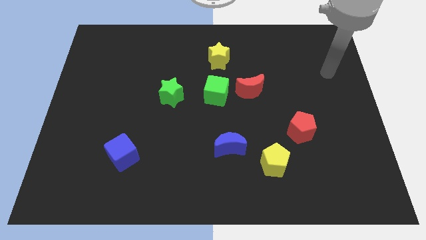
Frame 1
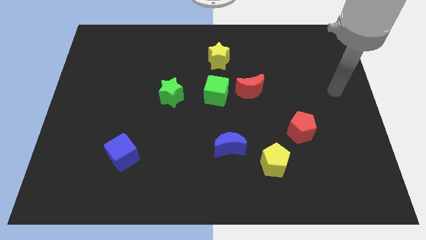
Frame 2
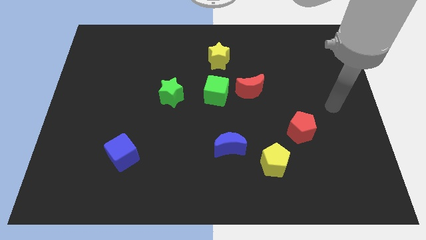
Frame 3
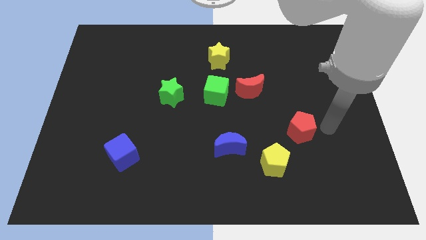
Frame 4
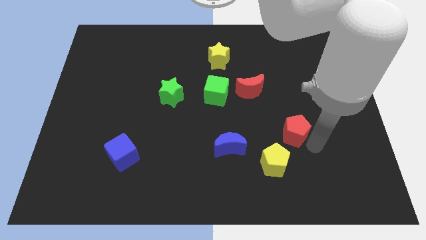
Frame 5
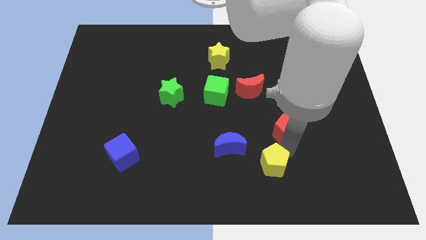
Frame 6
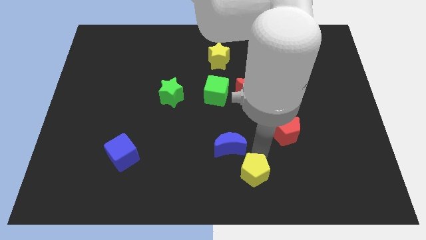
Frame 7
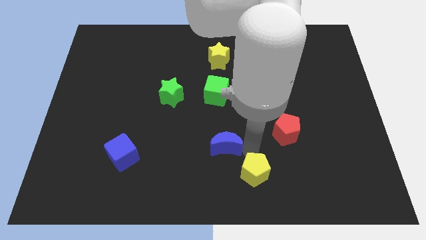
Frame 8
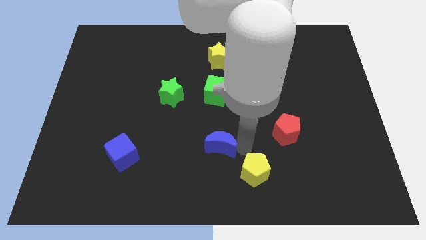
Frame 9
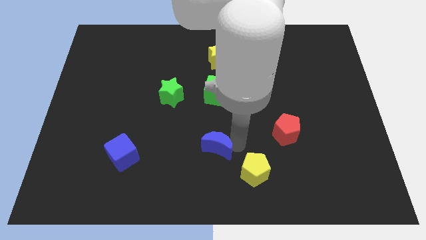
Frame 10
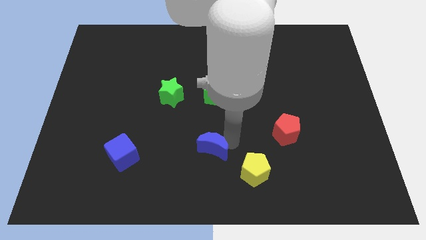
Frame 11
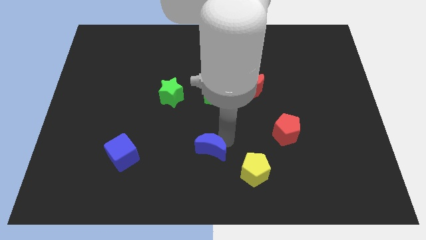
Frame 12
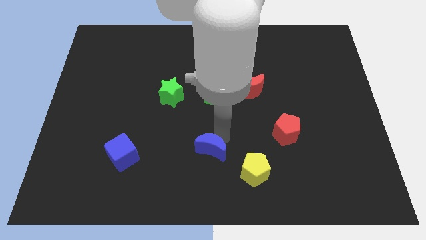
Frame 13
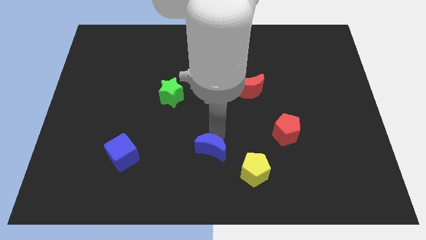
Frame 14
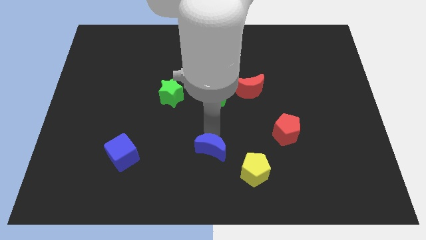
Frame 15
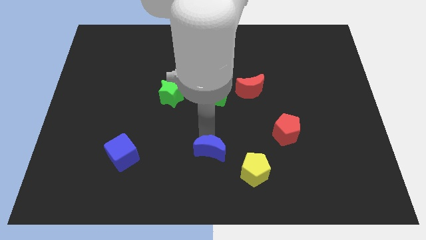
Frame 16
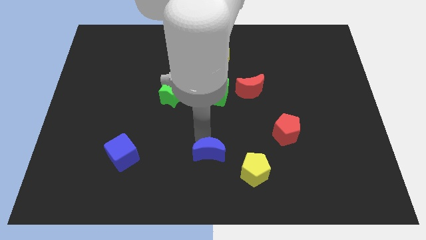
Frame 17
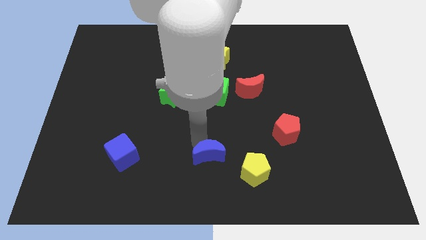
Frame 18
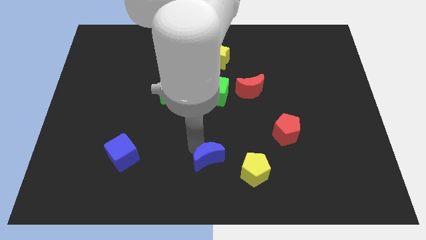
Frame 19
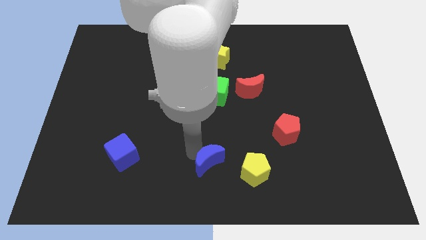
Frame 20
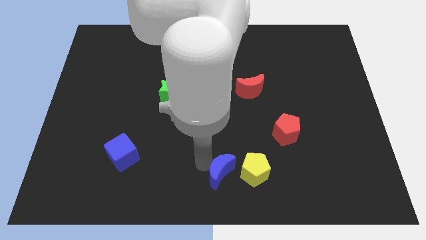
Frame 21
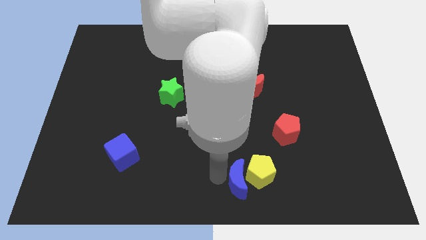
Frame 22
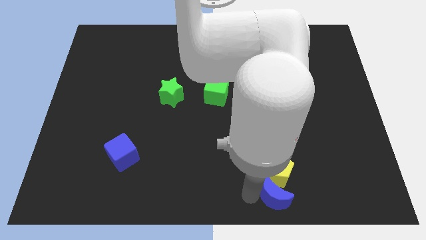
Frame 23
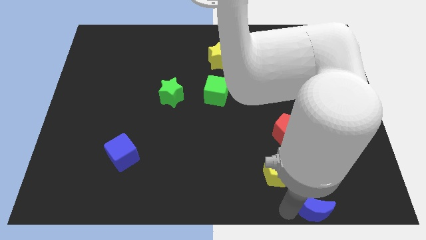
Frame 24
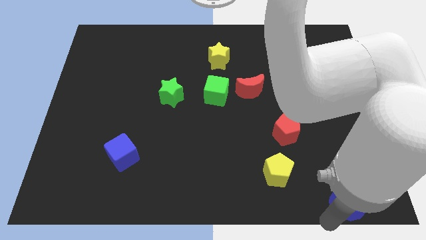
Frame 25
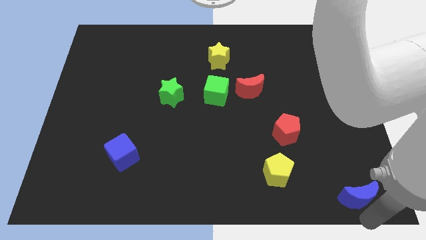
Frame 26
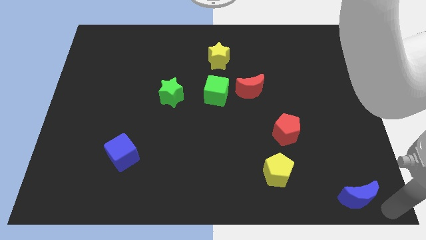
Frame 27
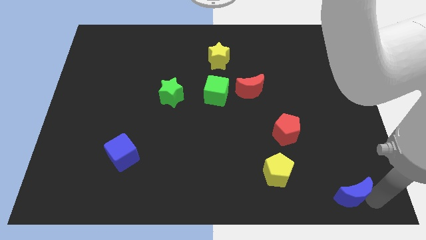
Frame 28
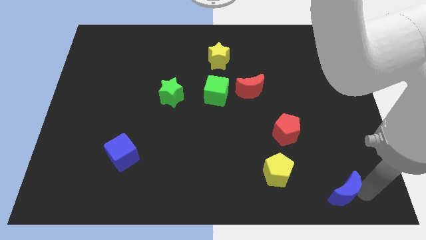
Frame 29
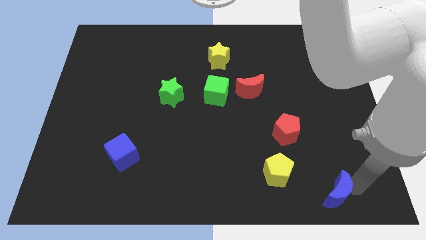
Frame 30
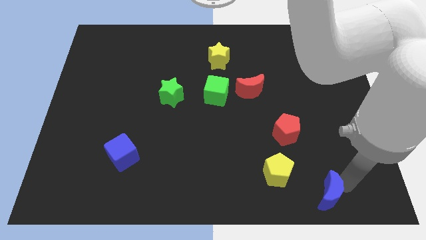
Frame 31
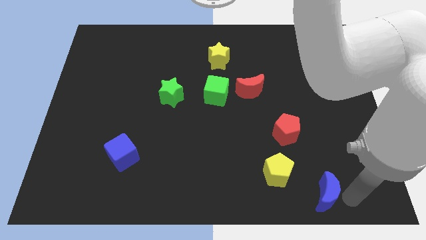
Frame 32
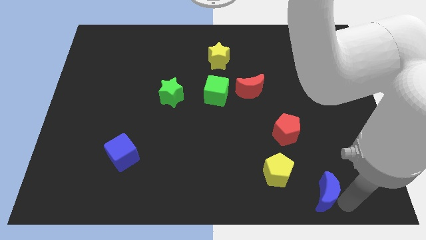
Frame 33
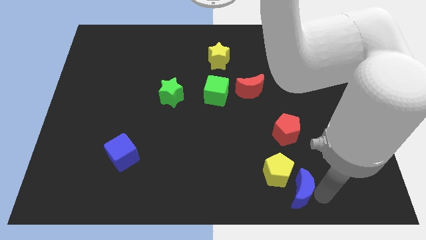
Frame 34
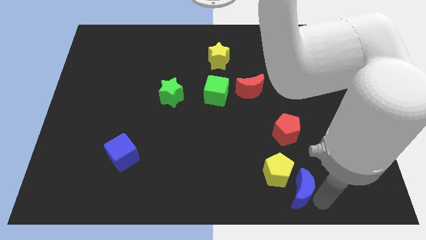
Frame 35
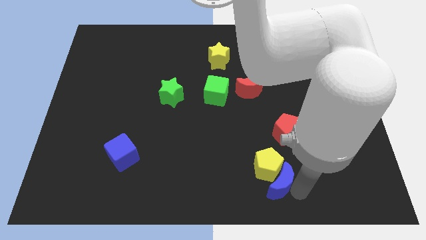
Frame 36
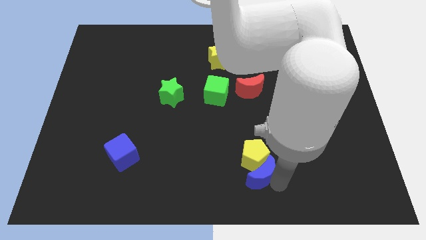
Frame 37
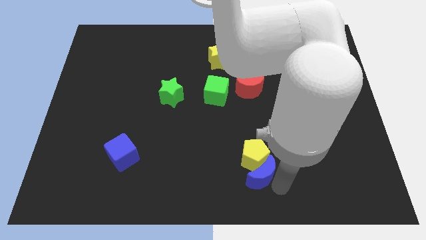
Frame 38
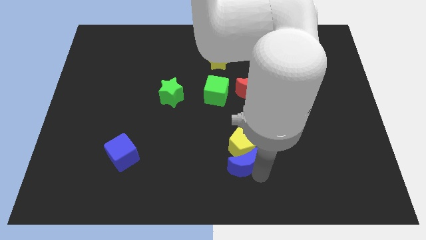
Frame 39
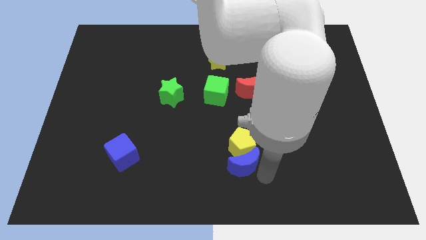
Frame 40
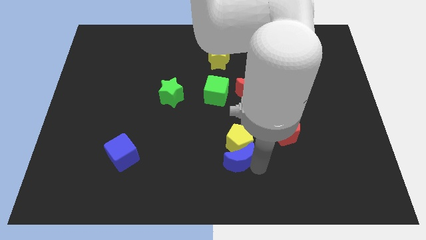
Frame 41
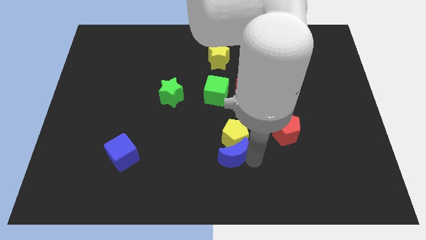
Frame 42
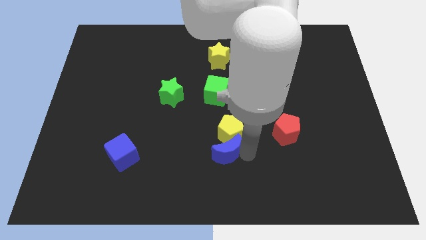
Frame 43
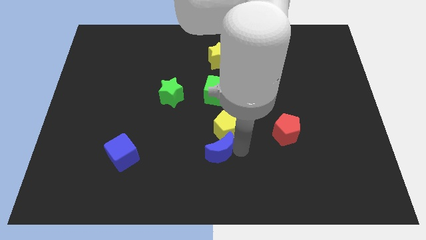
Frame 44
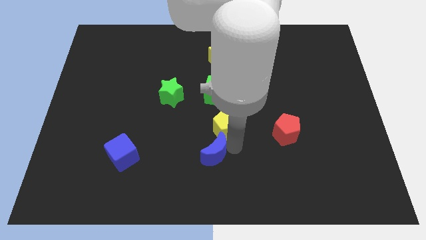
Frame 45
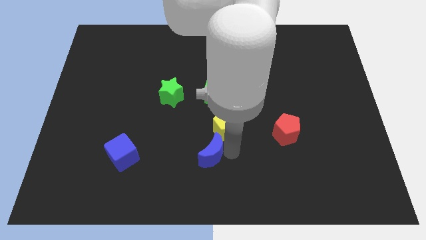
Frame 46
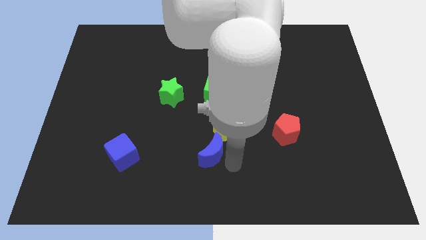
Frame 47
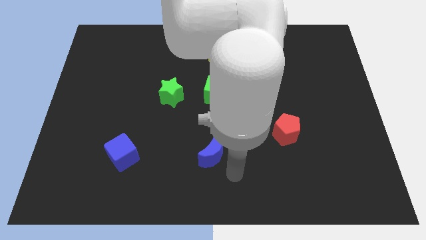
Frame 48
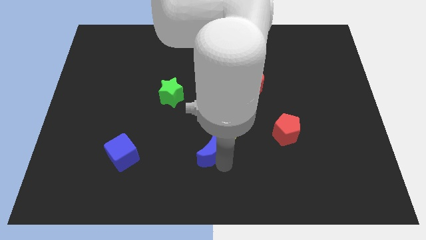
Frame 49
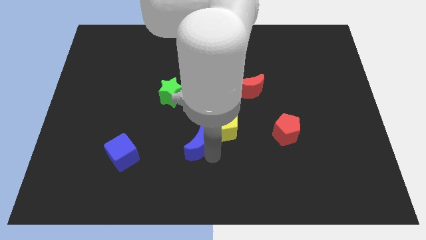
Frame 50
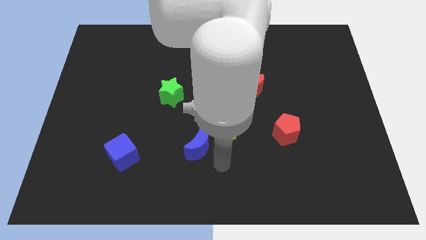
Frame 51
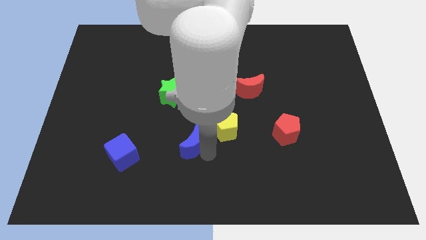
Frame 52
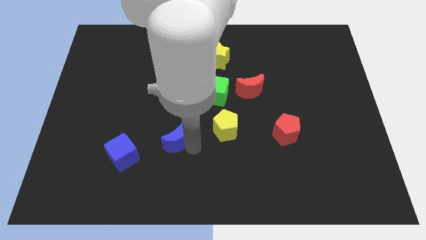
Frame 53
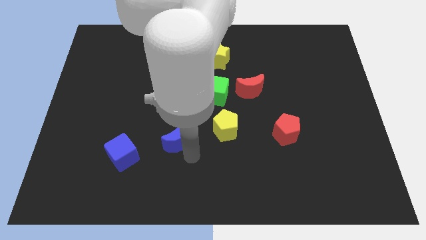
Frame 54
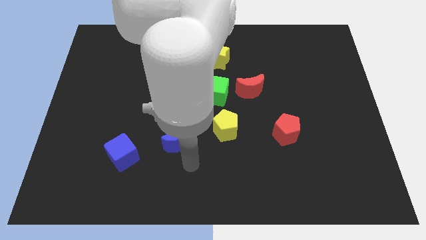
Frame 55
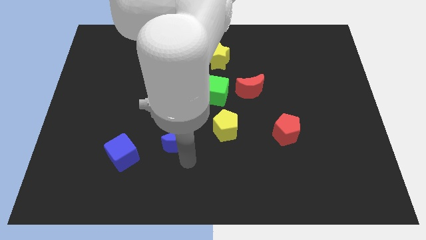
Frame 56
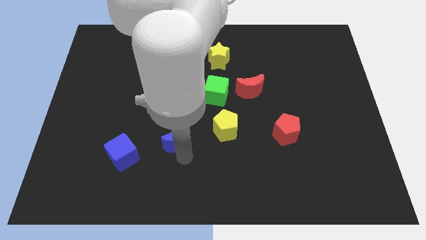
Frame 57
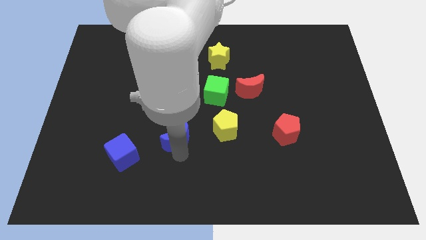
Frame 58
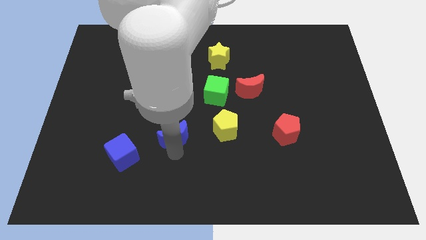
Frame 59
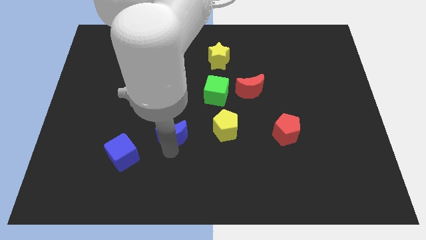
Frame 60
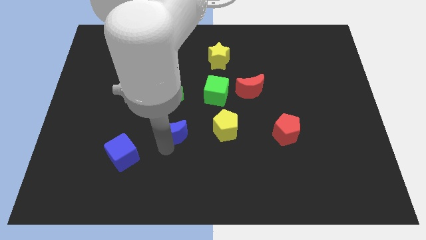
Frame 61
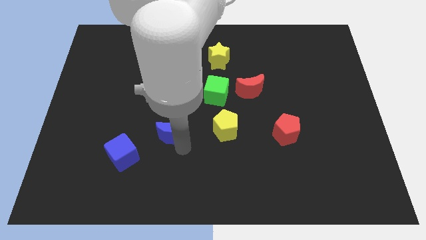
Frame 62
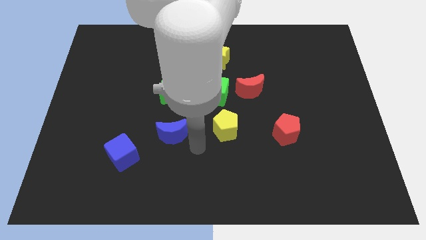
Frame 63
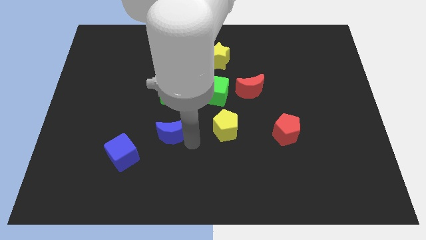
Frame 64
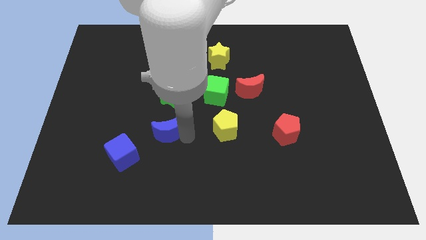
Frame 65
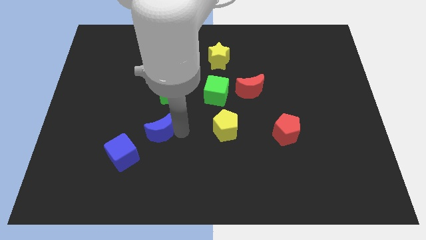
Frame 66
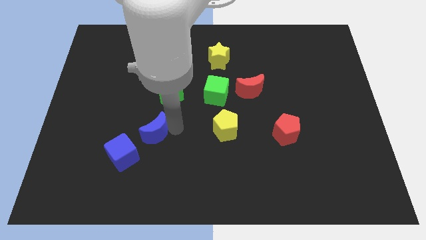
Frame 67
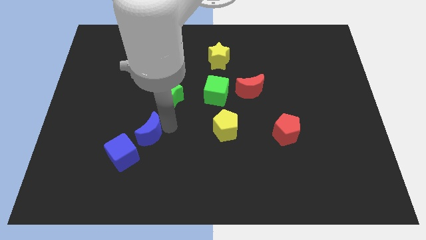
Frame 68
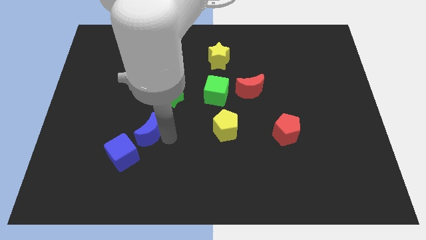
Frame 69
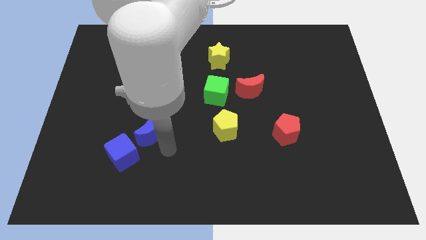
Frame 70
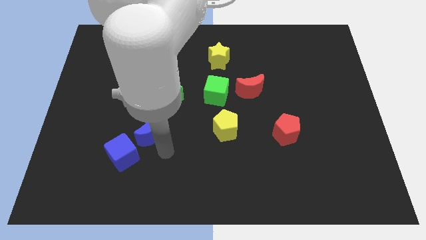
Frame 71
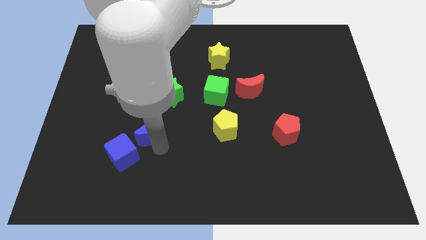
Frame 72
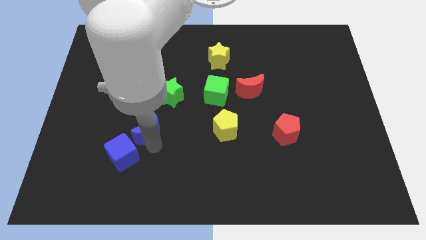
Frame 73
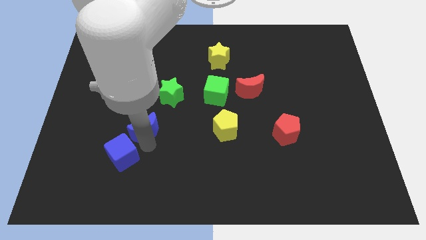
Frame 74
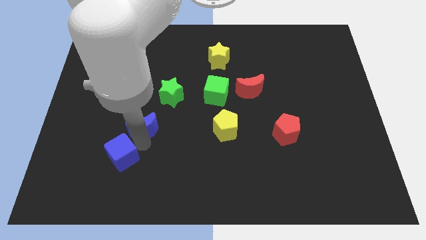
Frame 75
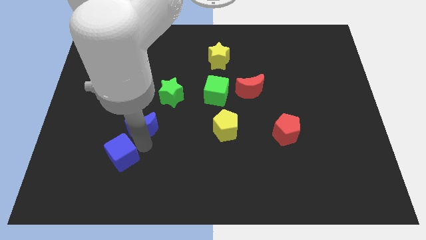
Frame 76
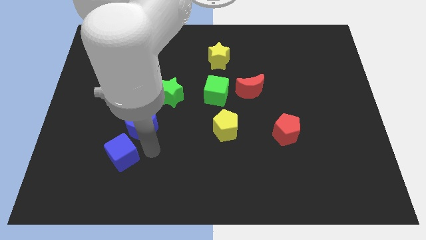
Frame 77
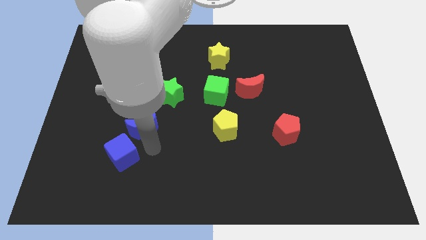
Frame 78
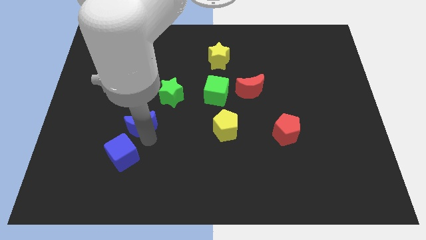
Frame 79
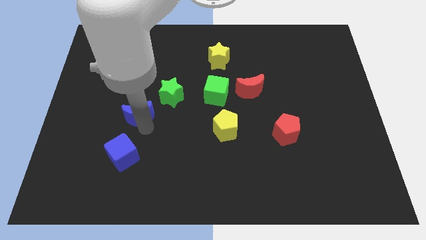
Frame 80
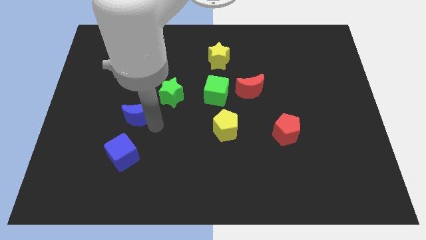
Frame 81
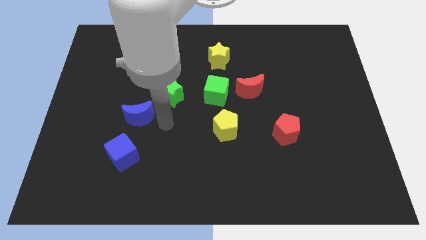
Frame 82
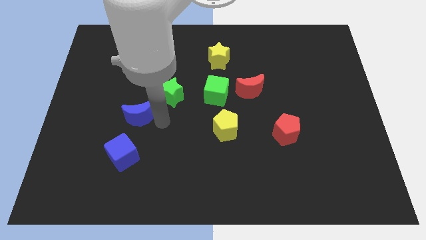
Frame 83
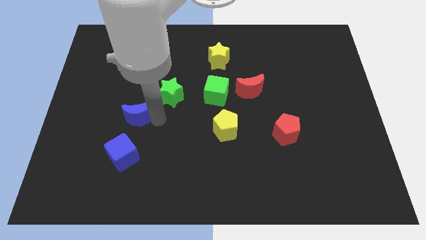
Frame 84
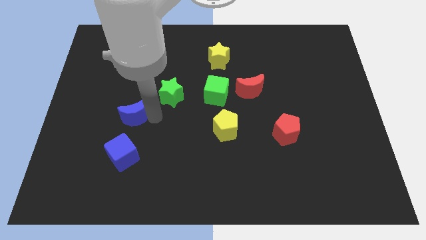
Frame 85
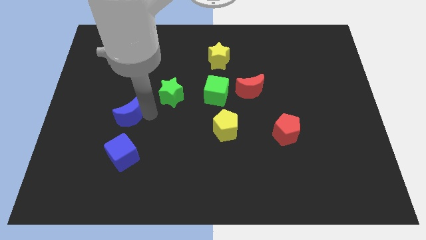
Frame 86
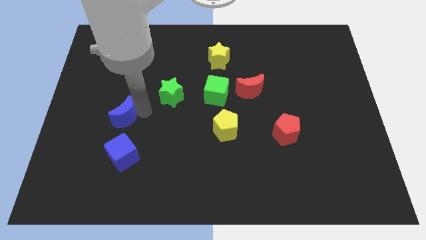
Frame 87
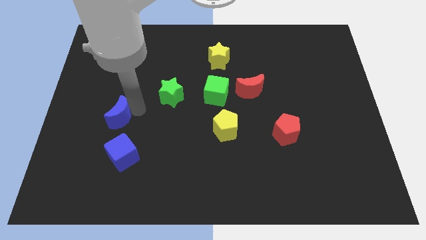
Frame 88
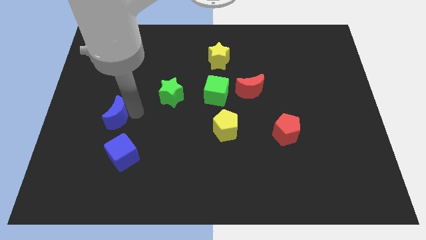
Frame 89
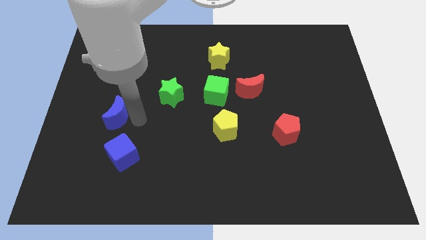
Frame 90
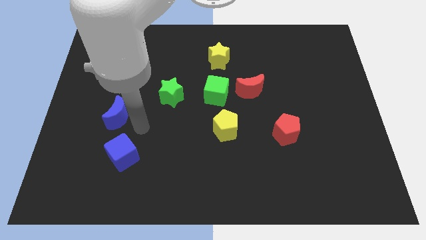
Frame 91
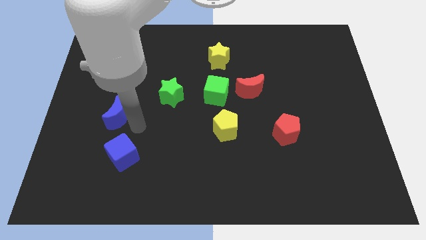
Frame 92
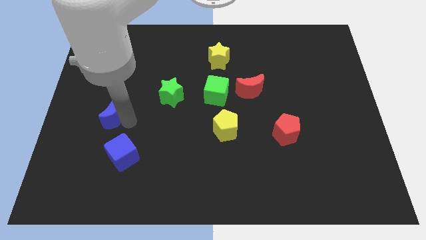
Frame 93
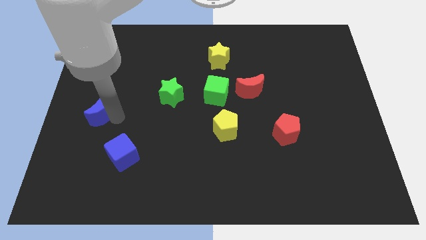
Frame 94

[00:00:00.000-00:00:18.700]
put the blue moon to the left side
